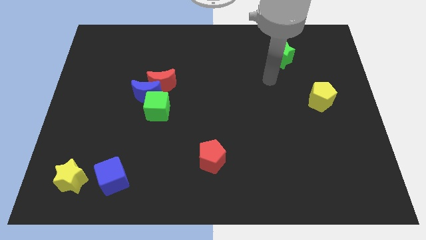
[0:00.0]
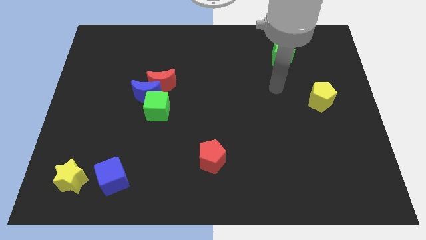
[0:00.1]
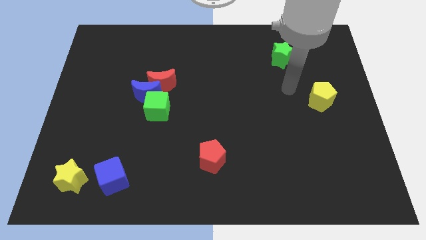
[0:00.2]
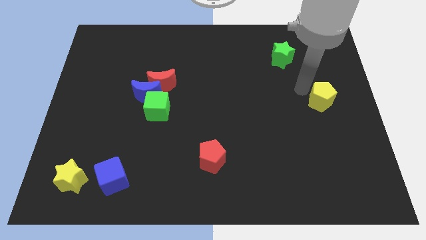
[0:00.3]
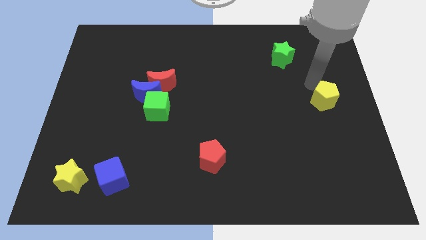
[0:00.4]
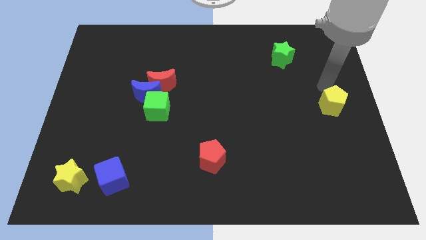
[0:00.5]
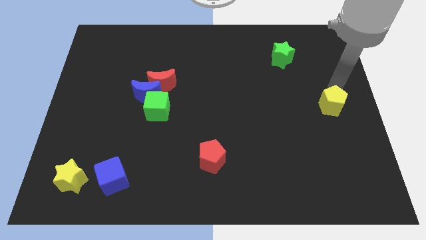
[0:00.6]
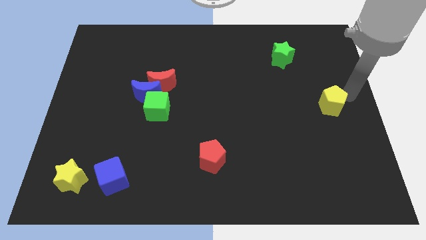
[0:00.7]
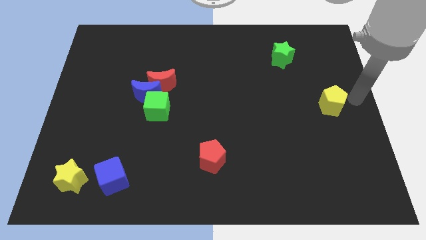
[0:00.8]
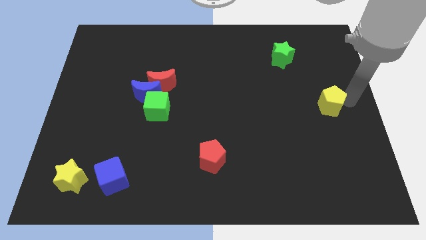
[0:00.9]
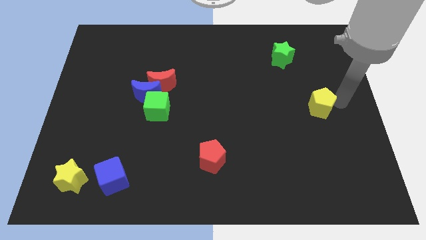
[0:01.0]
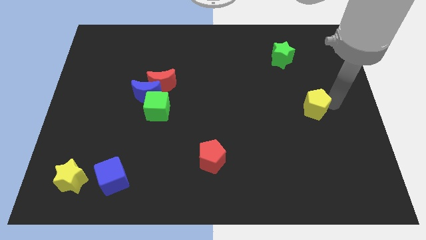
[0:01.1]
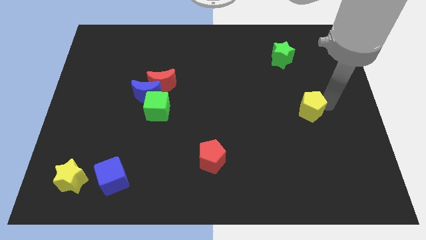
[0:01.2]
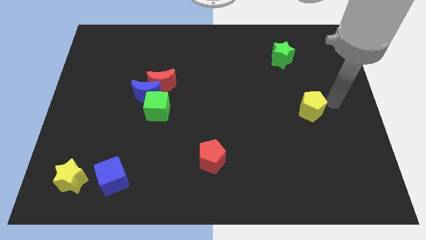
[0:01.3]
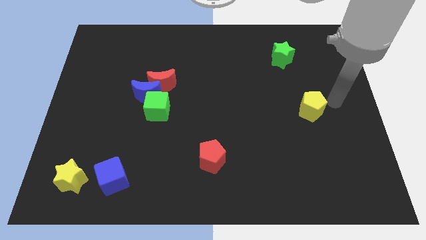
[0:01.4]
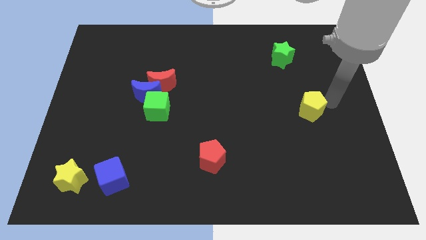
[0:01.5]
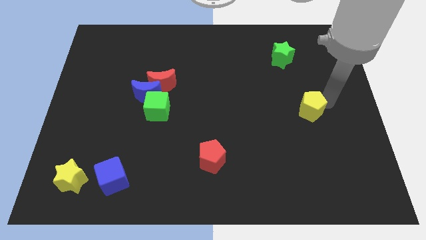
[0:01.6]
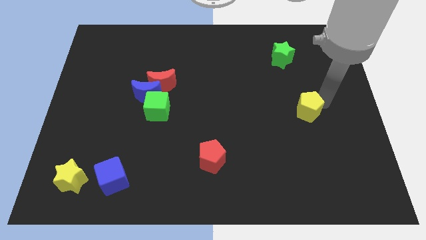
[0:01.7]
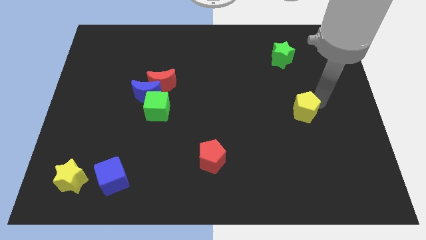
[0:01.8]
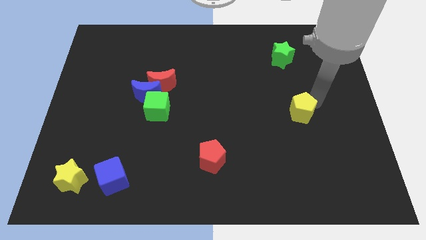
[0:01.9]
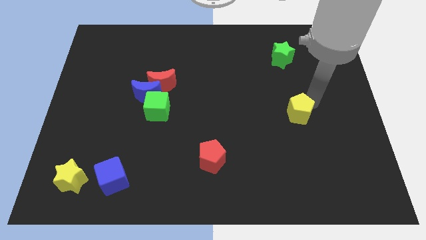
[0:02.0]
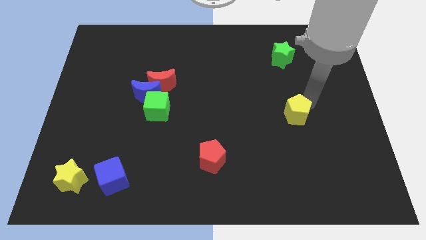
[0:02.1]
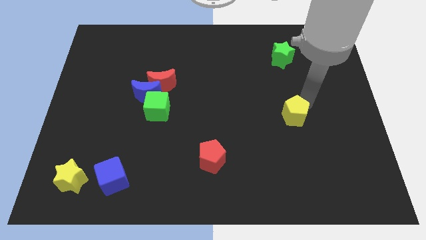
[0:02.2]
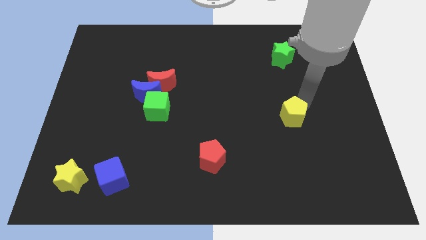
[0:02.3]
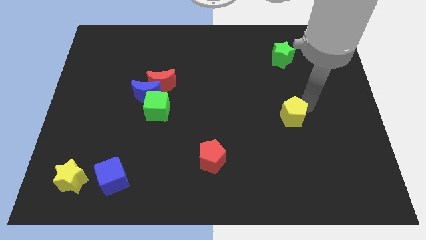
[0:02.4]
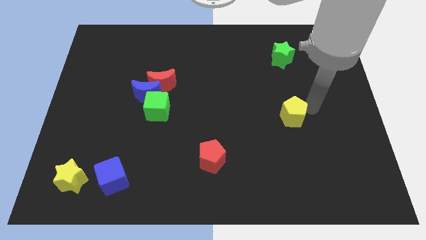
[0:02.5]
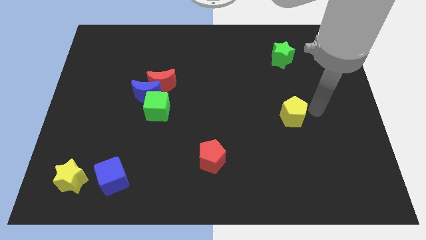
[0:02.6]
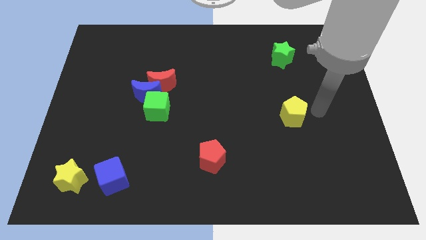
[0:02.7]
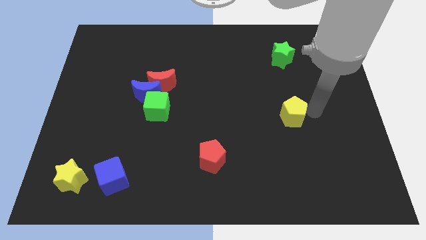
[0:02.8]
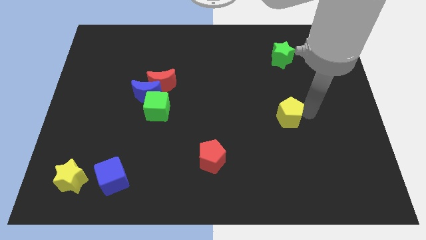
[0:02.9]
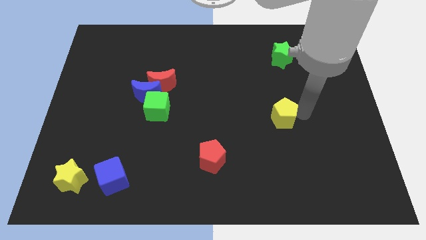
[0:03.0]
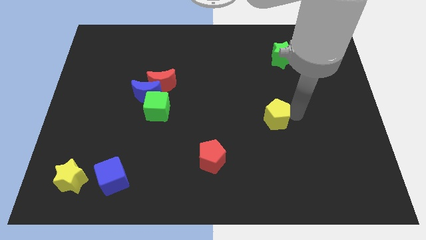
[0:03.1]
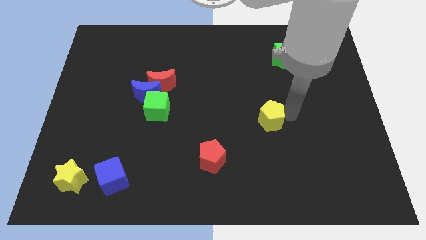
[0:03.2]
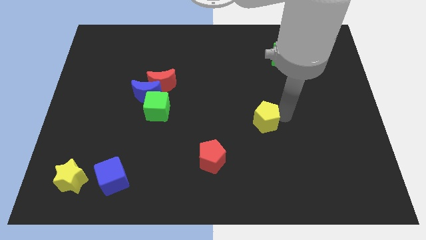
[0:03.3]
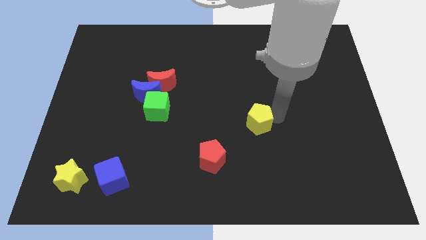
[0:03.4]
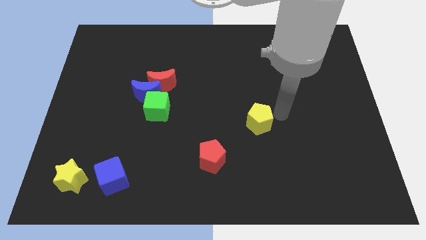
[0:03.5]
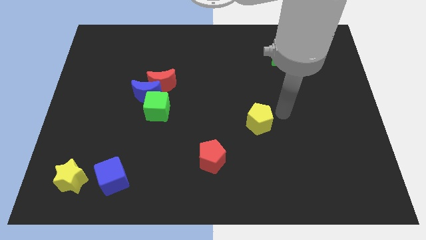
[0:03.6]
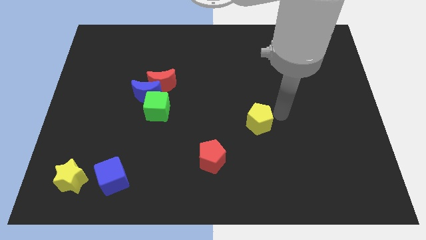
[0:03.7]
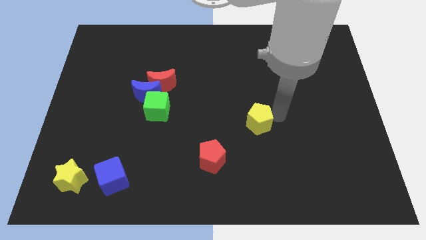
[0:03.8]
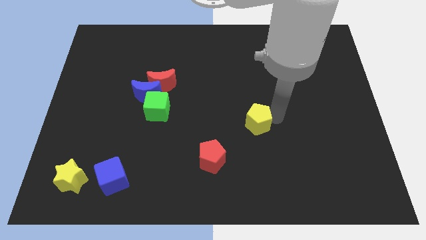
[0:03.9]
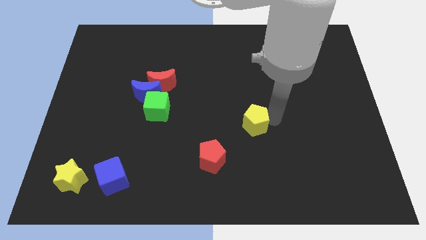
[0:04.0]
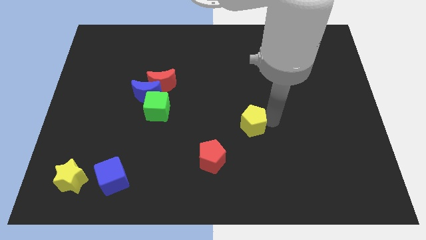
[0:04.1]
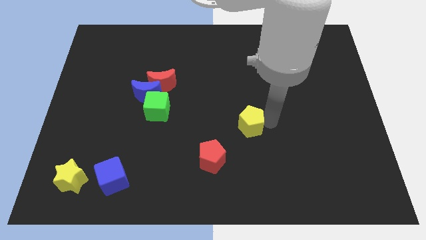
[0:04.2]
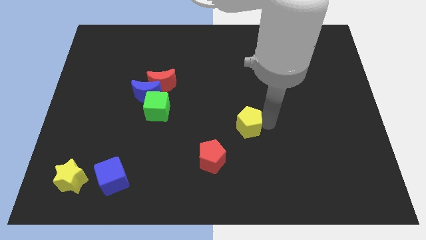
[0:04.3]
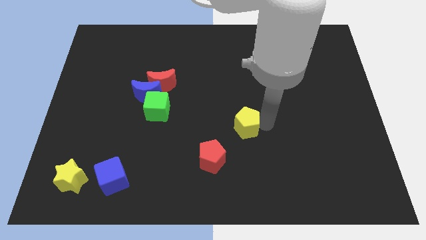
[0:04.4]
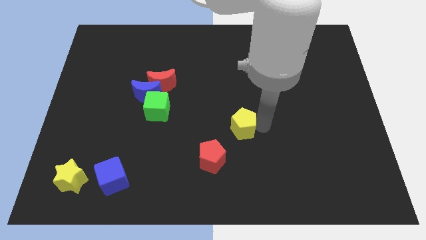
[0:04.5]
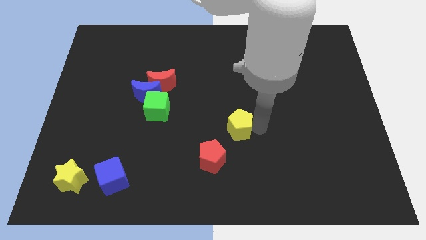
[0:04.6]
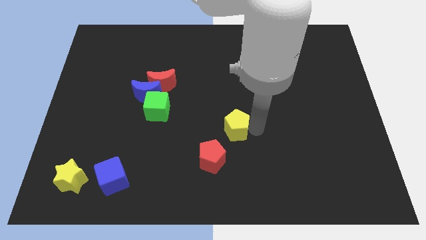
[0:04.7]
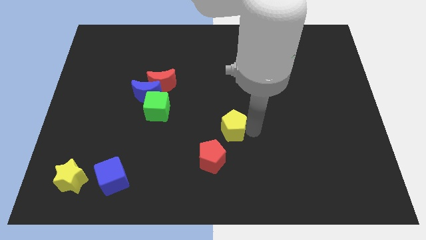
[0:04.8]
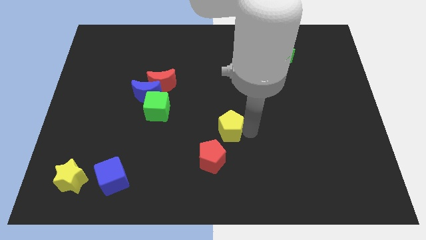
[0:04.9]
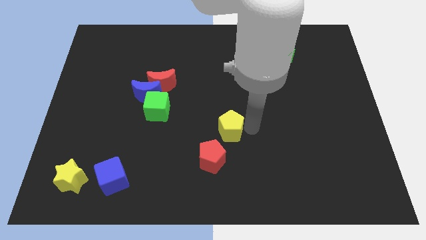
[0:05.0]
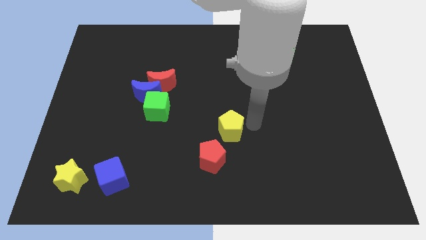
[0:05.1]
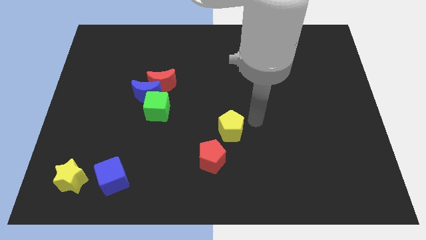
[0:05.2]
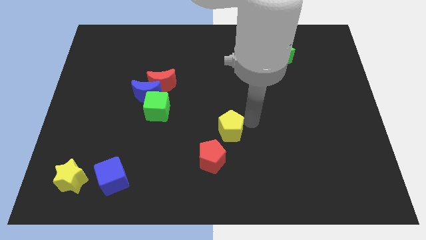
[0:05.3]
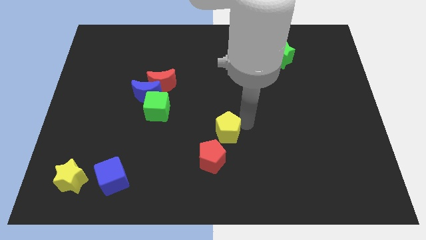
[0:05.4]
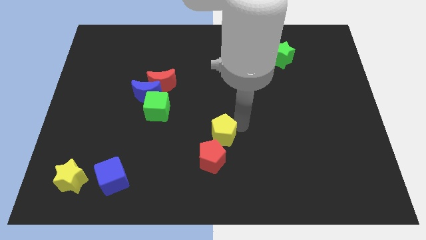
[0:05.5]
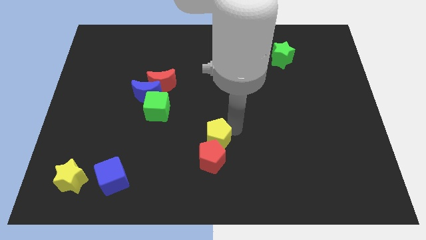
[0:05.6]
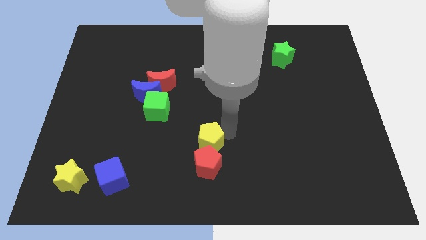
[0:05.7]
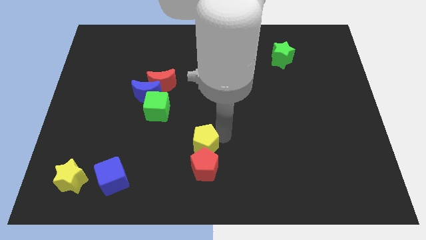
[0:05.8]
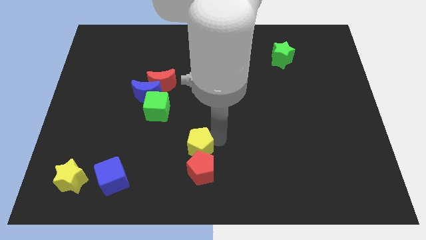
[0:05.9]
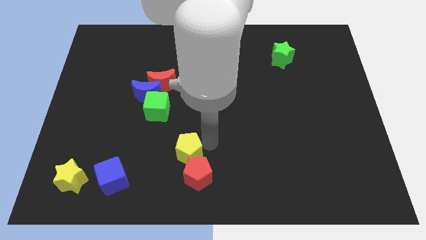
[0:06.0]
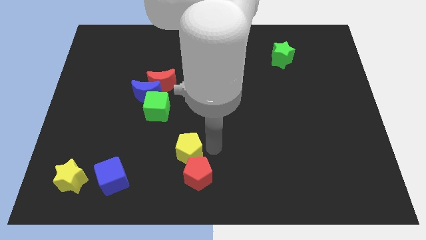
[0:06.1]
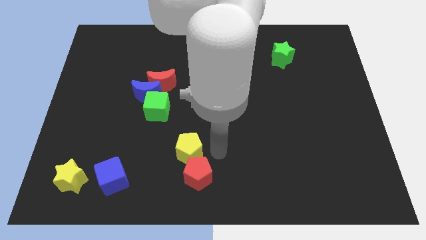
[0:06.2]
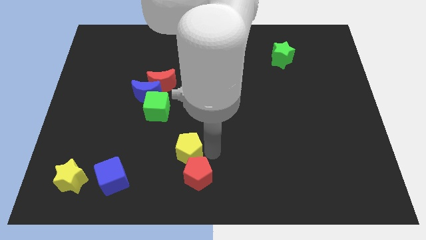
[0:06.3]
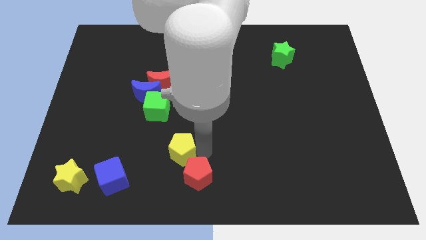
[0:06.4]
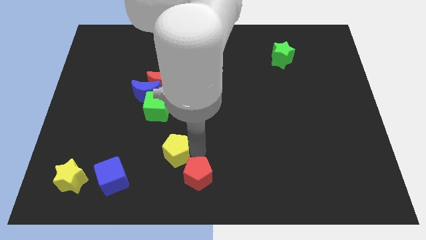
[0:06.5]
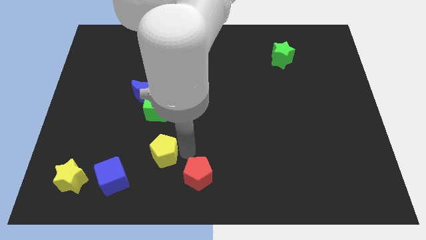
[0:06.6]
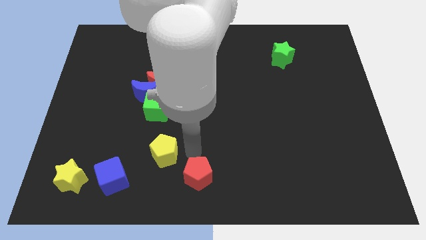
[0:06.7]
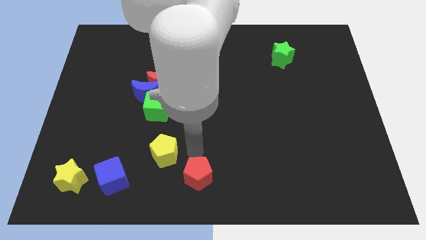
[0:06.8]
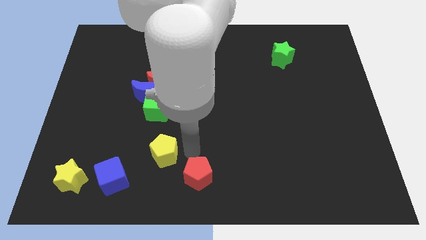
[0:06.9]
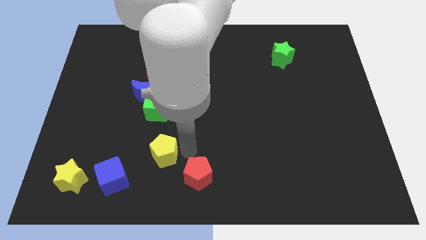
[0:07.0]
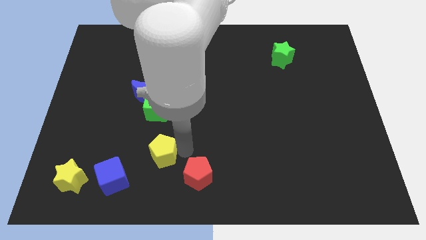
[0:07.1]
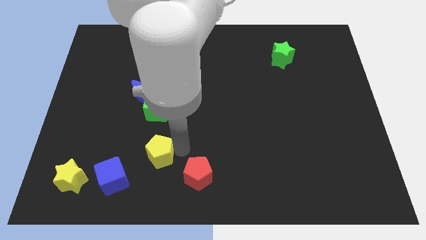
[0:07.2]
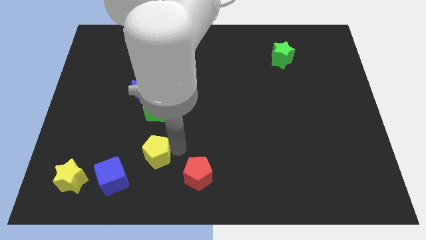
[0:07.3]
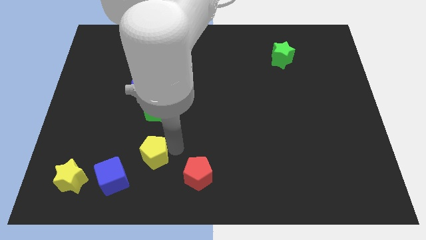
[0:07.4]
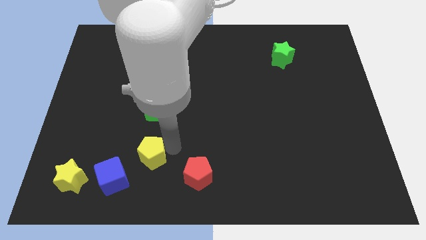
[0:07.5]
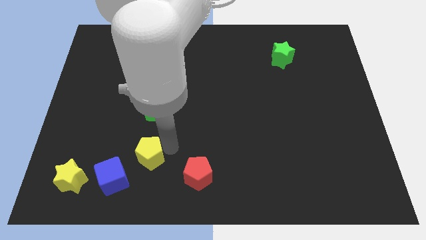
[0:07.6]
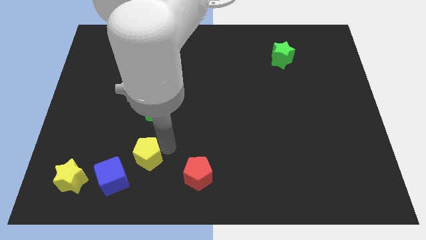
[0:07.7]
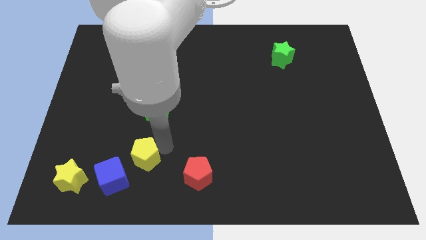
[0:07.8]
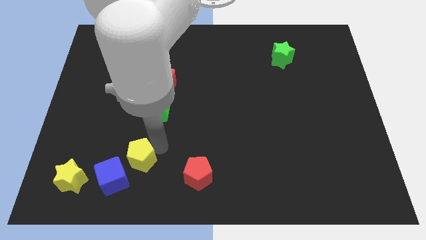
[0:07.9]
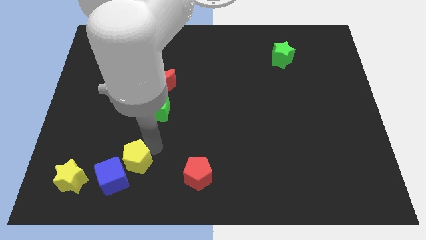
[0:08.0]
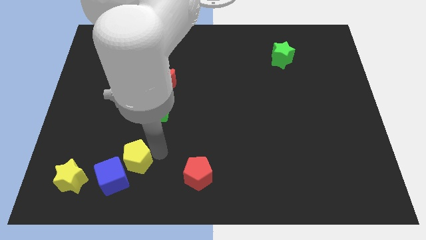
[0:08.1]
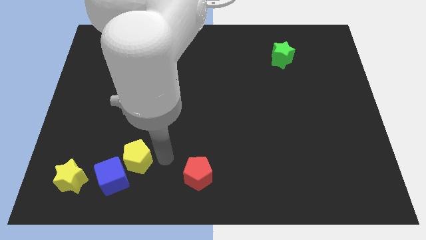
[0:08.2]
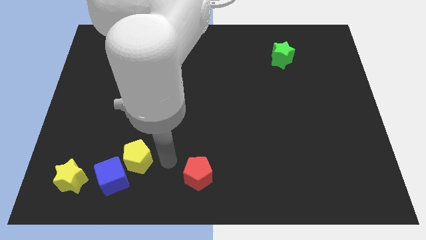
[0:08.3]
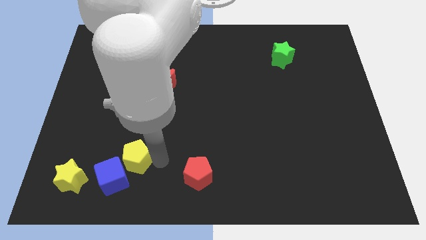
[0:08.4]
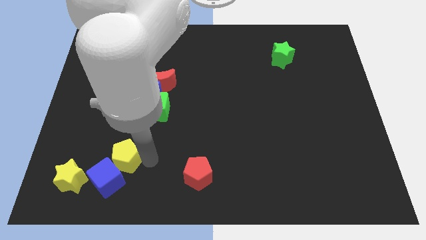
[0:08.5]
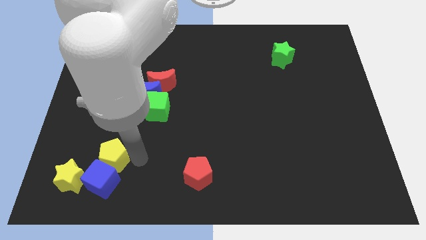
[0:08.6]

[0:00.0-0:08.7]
move the yellow pentagon to the top left side of the blue cube
